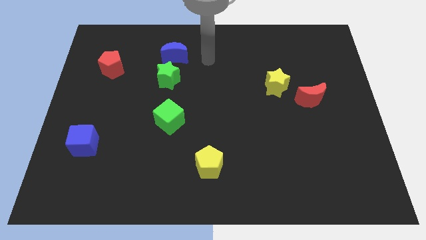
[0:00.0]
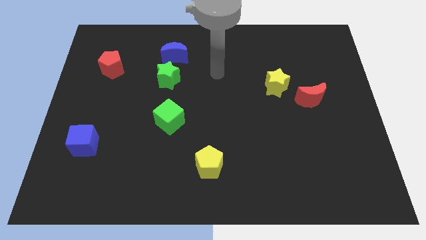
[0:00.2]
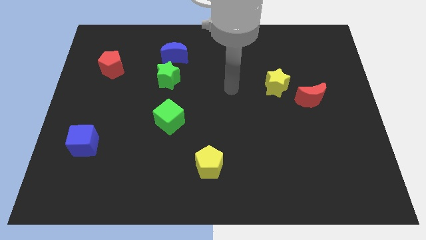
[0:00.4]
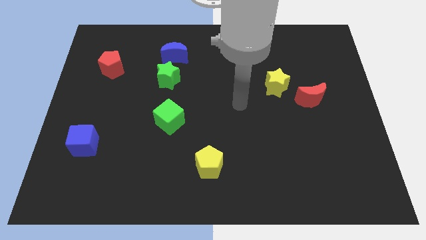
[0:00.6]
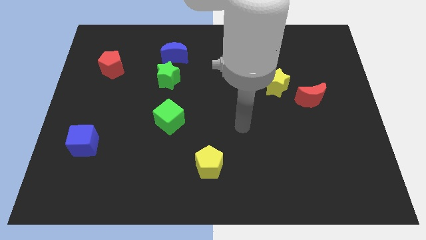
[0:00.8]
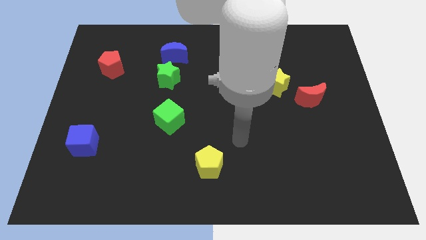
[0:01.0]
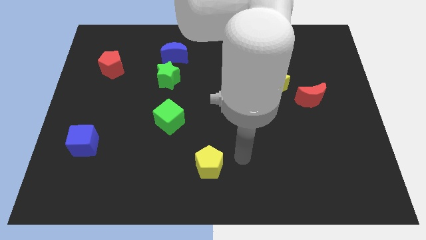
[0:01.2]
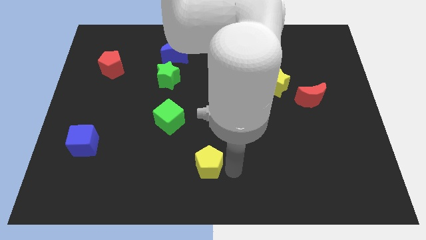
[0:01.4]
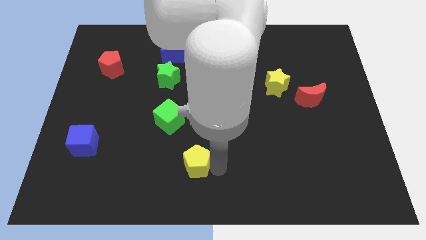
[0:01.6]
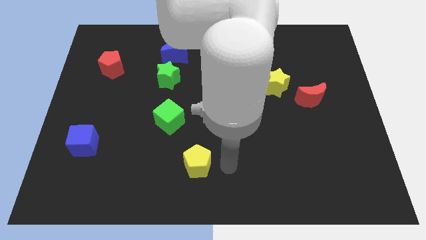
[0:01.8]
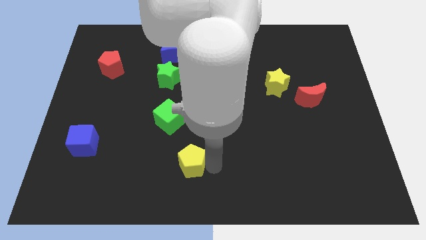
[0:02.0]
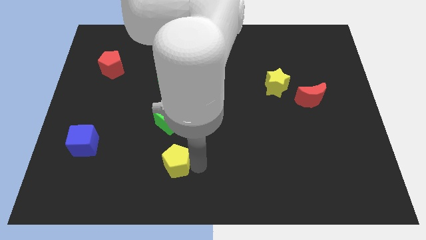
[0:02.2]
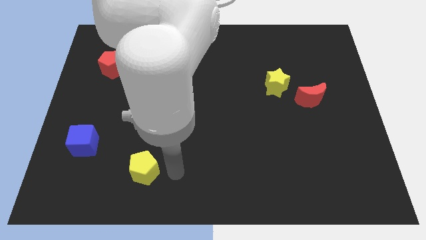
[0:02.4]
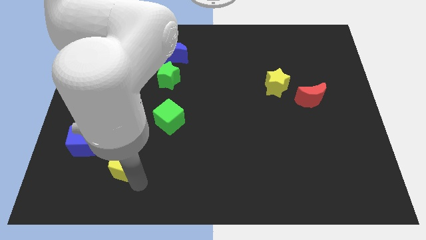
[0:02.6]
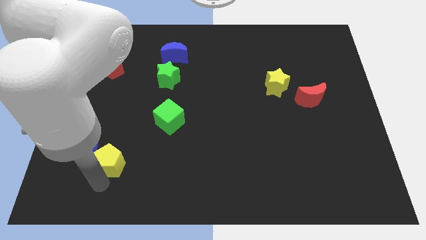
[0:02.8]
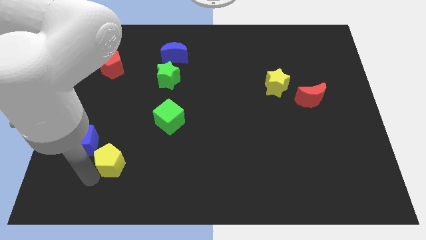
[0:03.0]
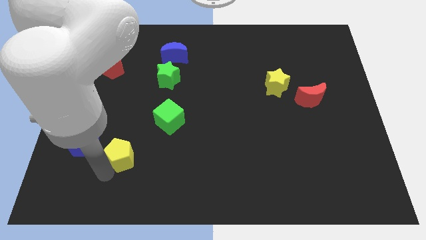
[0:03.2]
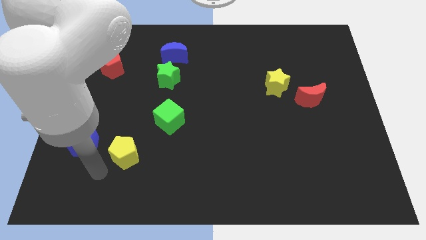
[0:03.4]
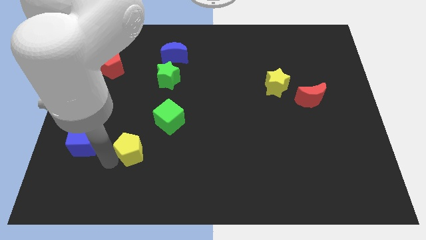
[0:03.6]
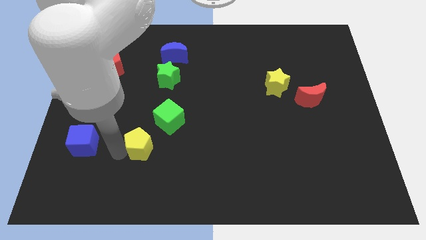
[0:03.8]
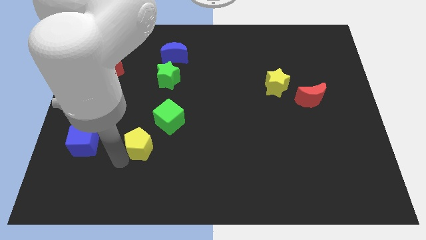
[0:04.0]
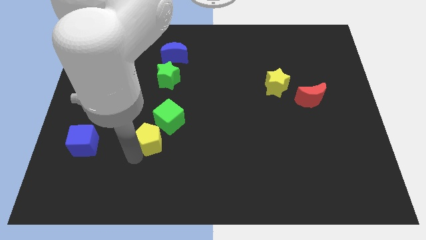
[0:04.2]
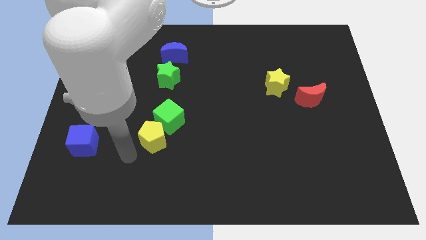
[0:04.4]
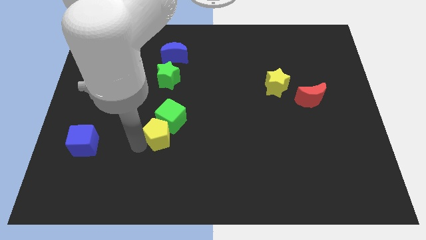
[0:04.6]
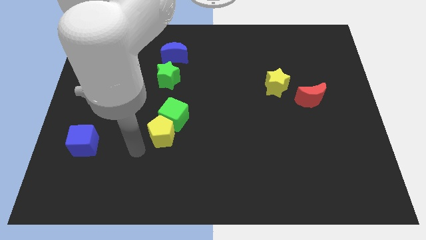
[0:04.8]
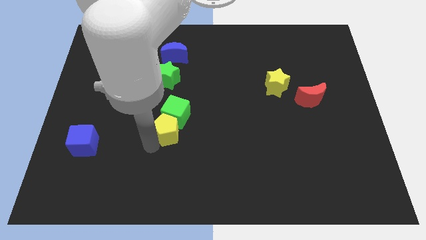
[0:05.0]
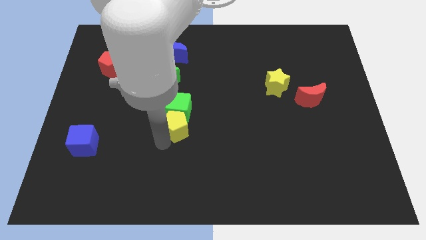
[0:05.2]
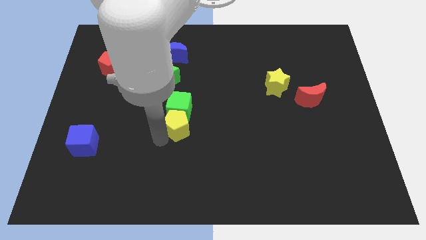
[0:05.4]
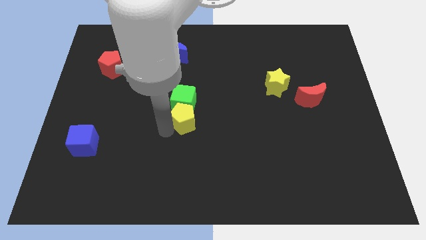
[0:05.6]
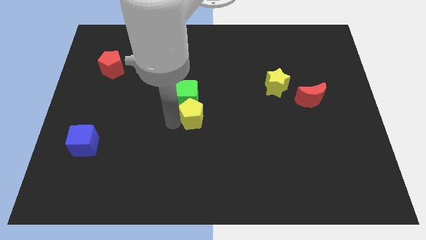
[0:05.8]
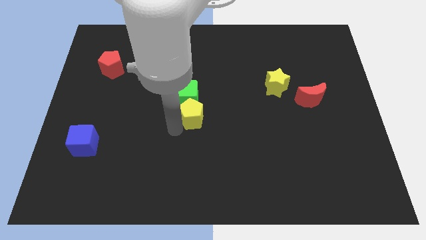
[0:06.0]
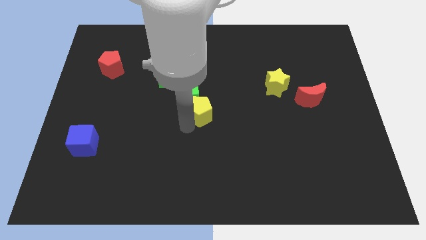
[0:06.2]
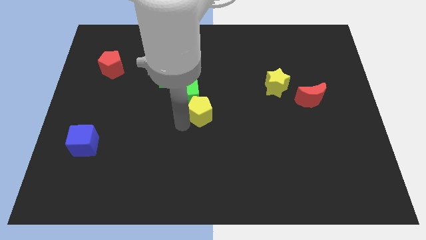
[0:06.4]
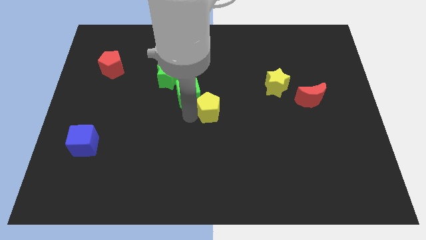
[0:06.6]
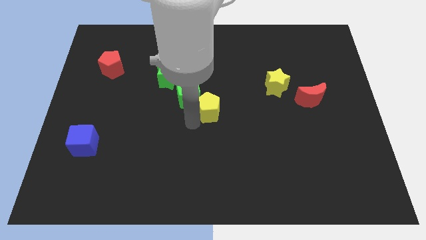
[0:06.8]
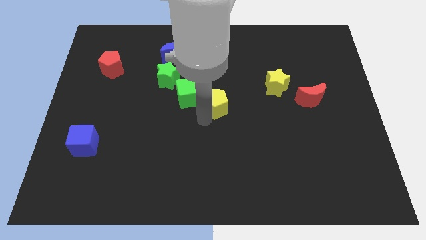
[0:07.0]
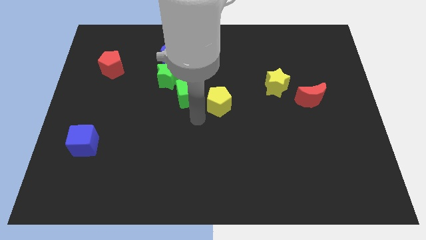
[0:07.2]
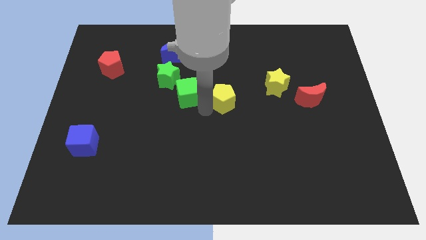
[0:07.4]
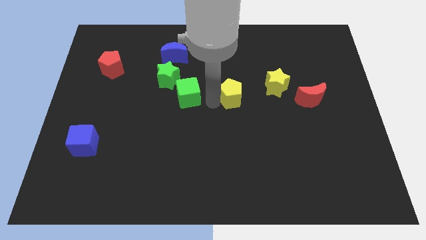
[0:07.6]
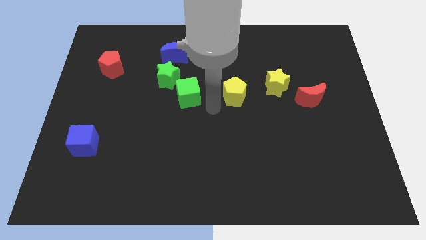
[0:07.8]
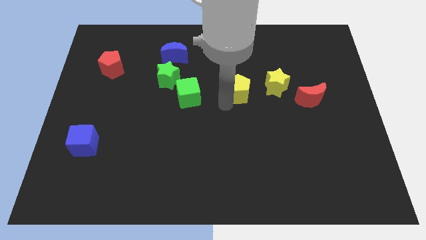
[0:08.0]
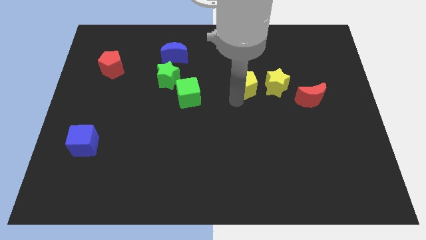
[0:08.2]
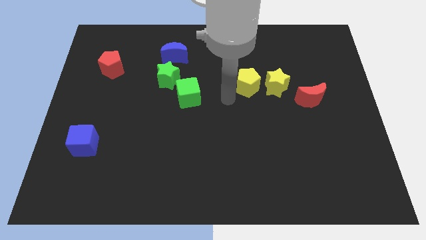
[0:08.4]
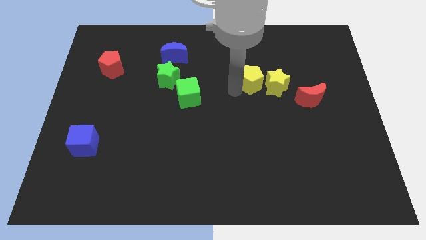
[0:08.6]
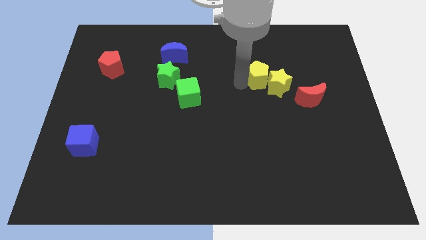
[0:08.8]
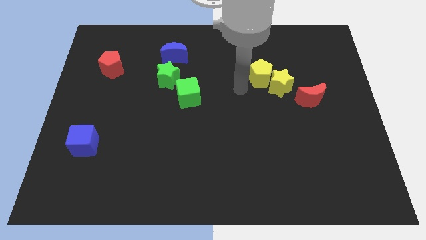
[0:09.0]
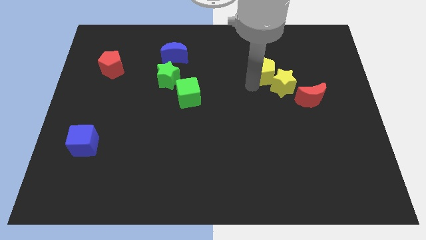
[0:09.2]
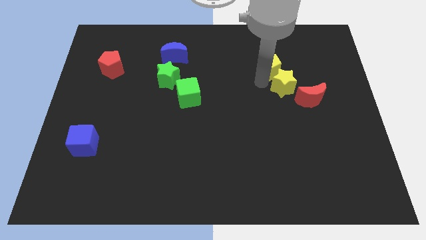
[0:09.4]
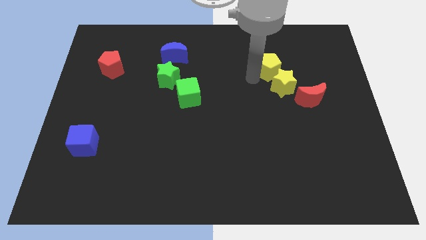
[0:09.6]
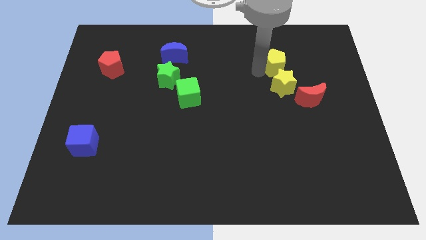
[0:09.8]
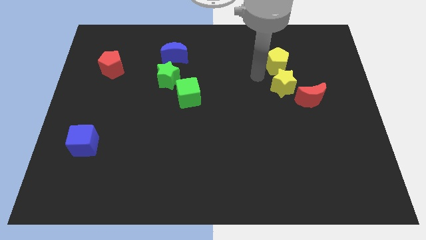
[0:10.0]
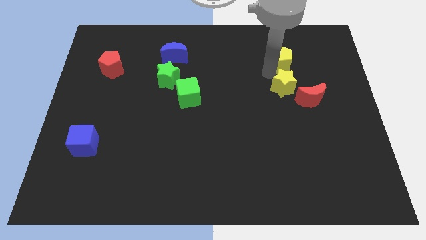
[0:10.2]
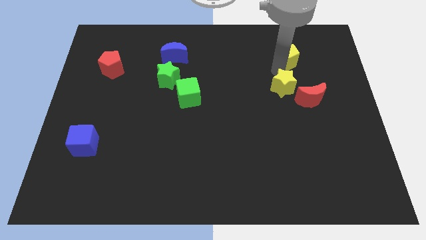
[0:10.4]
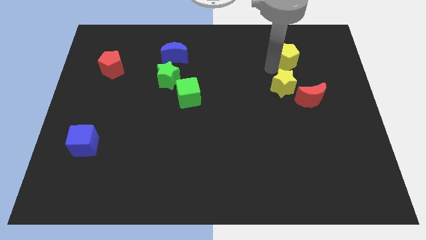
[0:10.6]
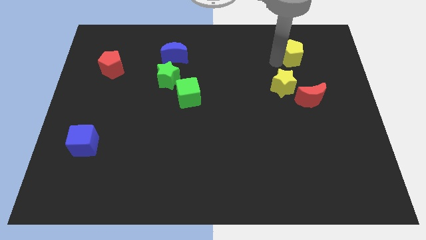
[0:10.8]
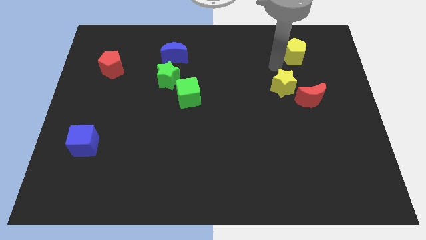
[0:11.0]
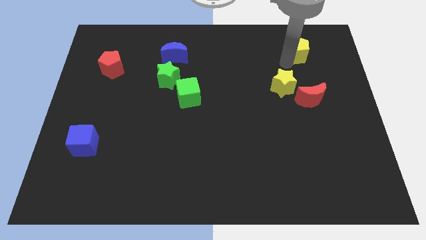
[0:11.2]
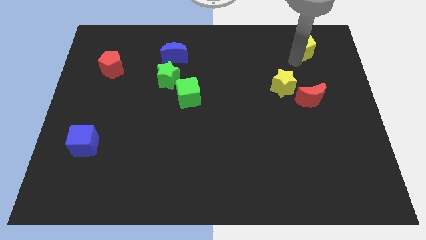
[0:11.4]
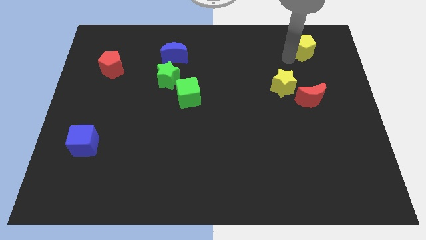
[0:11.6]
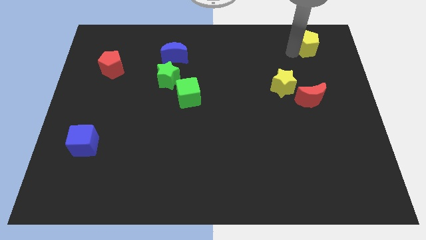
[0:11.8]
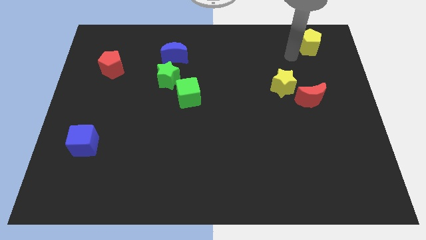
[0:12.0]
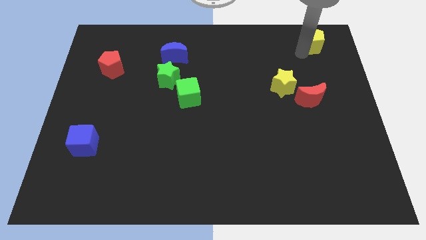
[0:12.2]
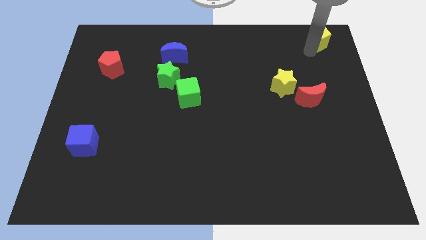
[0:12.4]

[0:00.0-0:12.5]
put the yellow pentagon to the upper right corner
